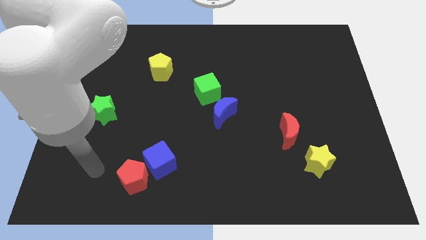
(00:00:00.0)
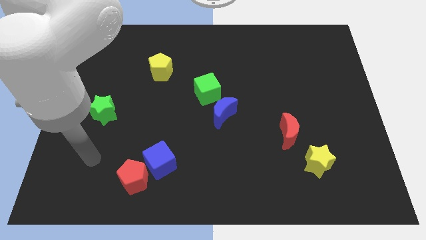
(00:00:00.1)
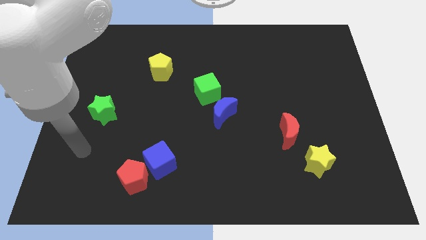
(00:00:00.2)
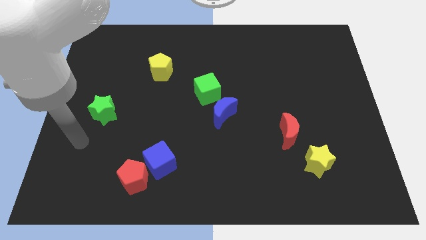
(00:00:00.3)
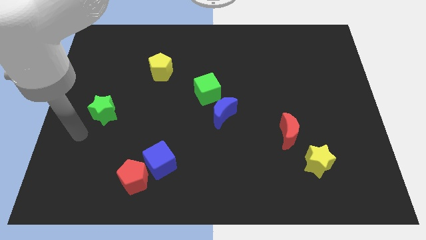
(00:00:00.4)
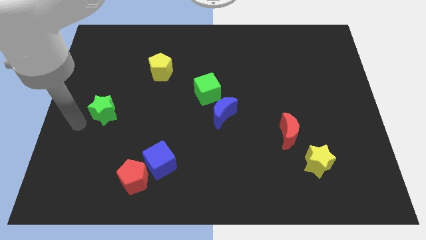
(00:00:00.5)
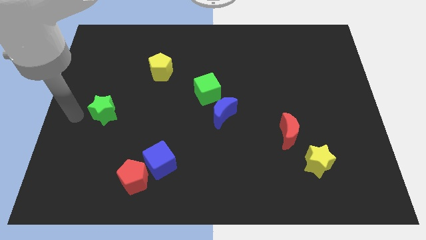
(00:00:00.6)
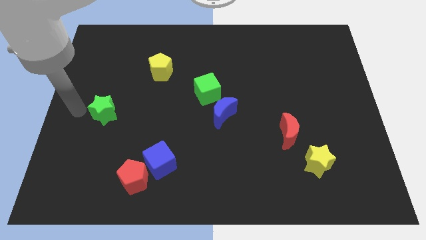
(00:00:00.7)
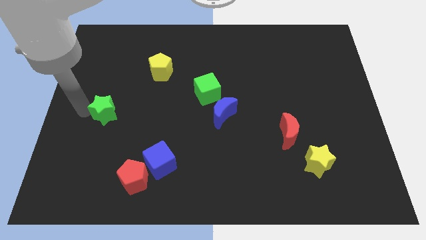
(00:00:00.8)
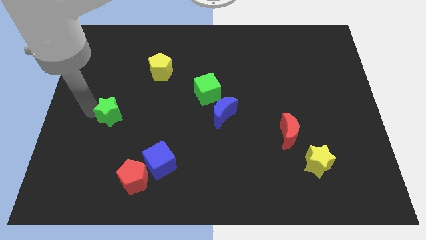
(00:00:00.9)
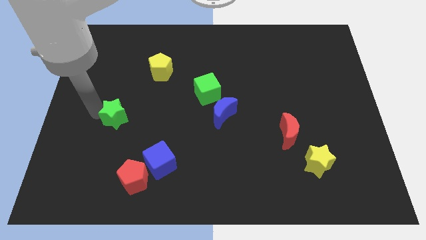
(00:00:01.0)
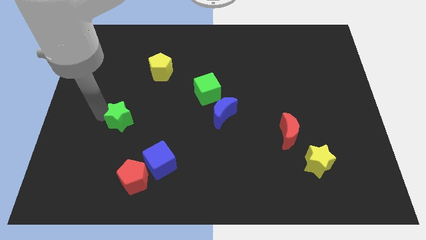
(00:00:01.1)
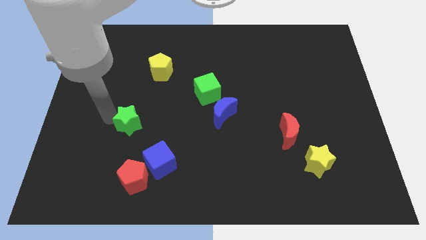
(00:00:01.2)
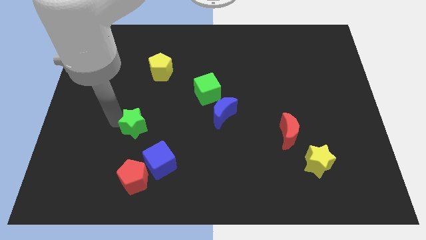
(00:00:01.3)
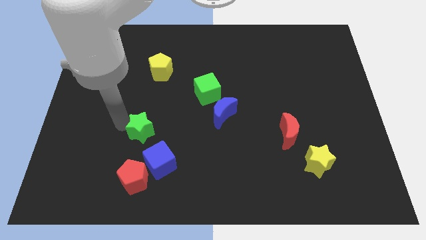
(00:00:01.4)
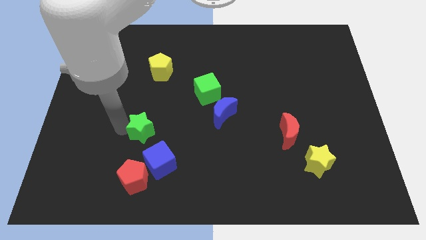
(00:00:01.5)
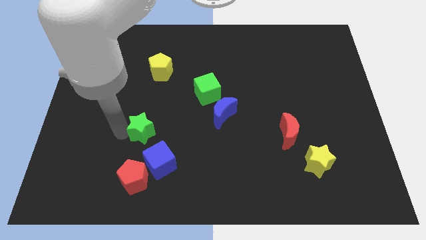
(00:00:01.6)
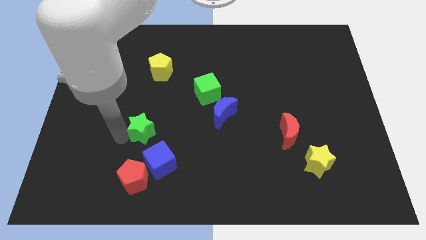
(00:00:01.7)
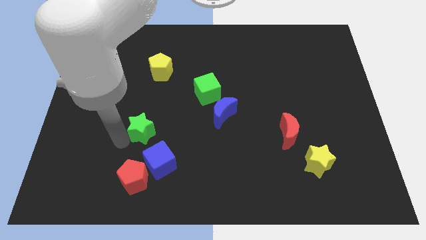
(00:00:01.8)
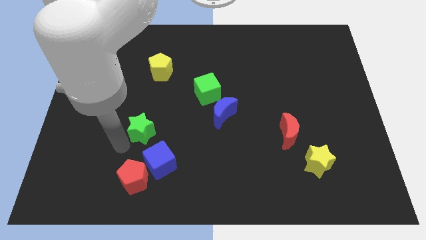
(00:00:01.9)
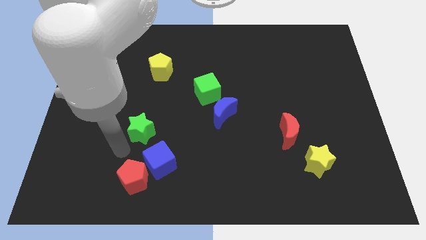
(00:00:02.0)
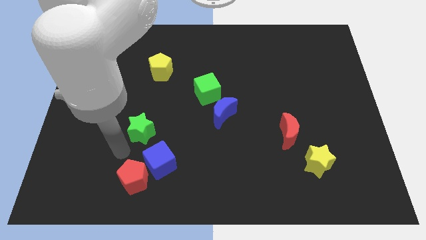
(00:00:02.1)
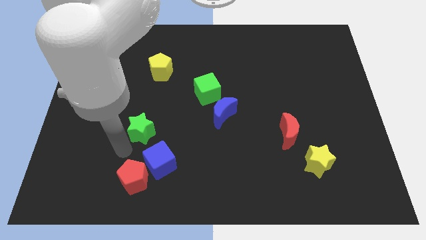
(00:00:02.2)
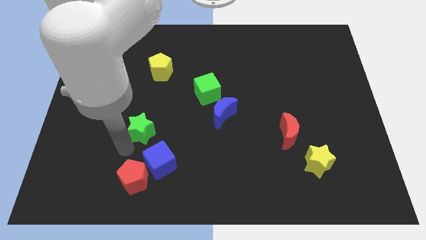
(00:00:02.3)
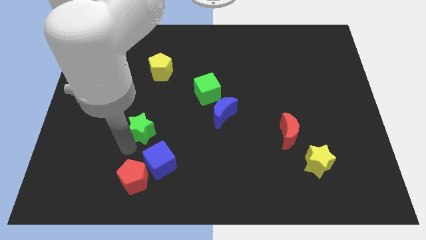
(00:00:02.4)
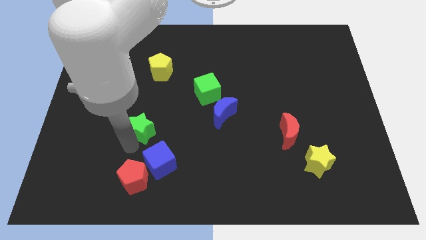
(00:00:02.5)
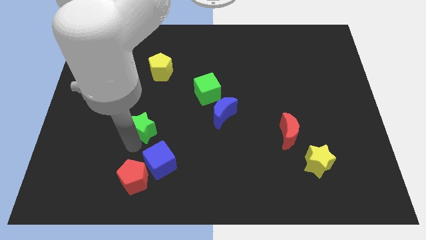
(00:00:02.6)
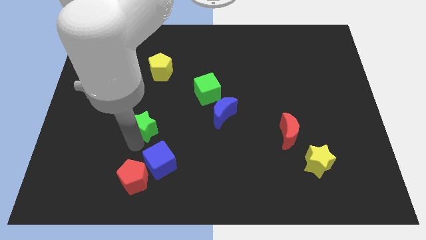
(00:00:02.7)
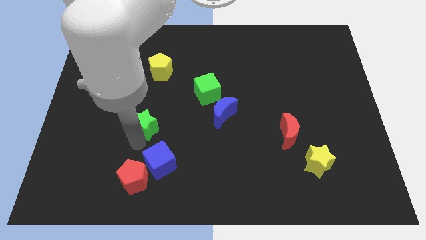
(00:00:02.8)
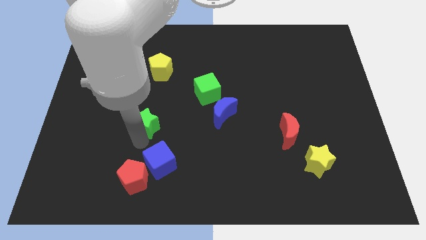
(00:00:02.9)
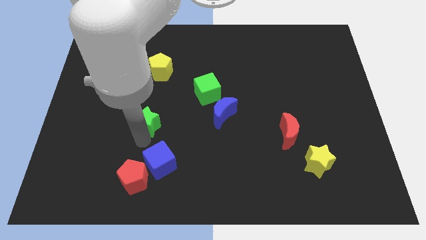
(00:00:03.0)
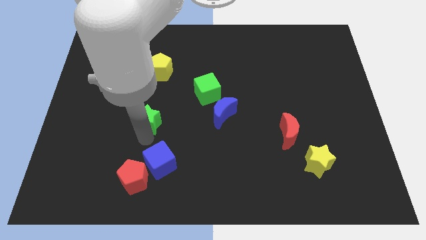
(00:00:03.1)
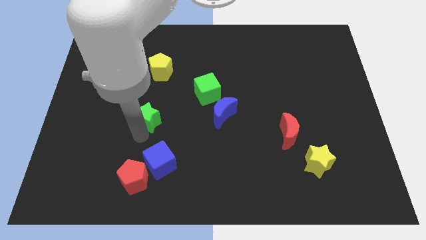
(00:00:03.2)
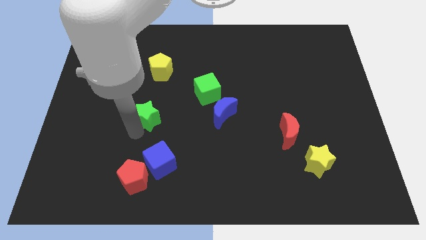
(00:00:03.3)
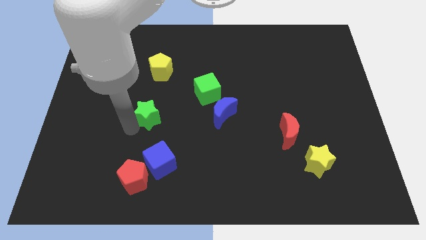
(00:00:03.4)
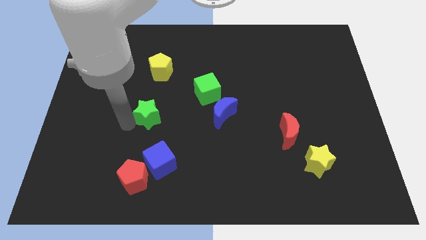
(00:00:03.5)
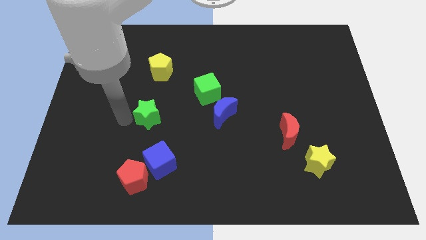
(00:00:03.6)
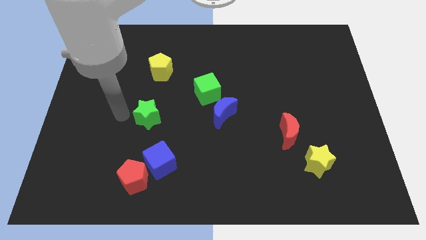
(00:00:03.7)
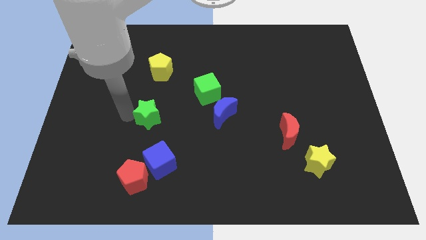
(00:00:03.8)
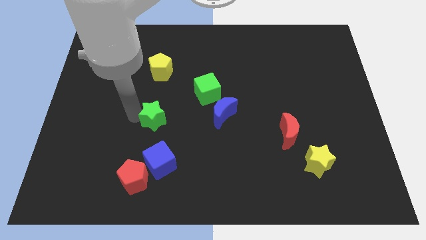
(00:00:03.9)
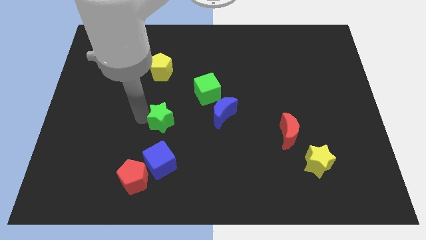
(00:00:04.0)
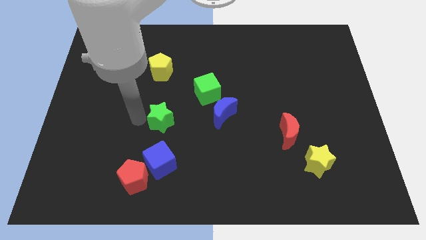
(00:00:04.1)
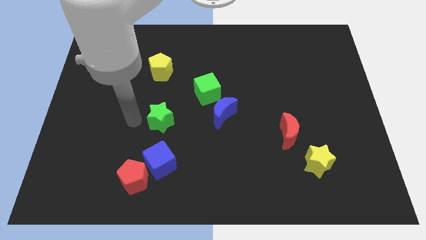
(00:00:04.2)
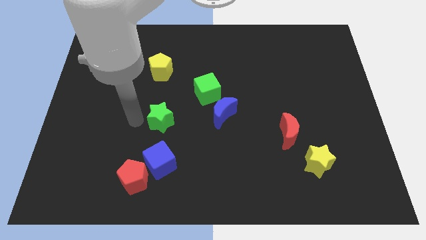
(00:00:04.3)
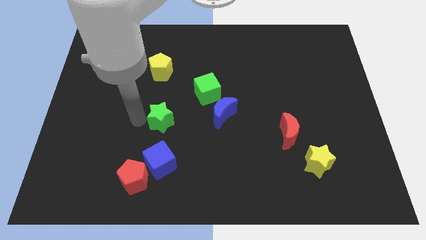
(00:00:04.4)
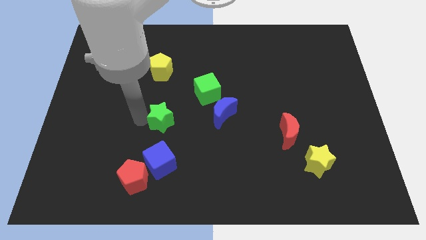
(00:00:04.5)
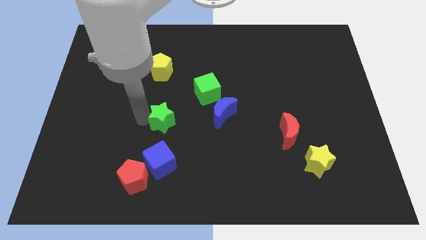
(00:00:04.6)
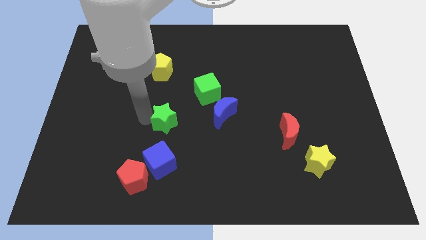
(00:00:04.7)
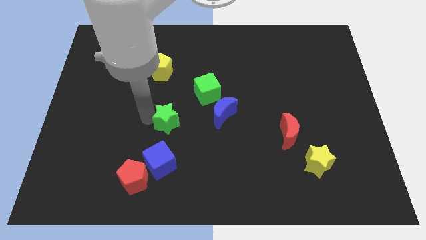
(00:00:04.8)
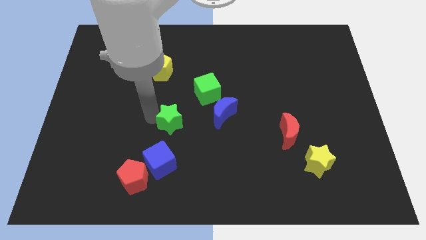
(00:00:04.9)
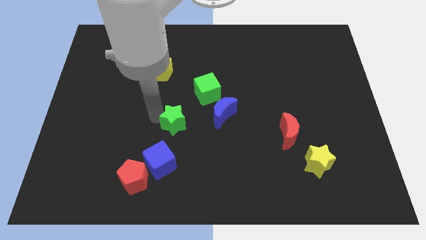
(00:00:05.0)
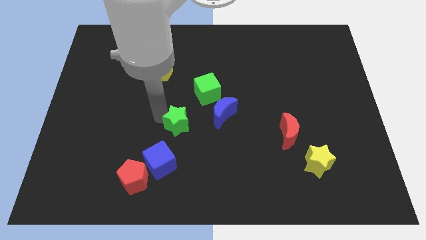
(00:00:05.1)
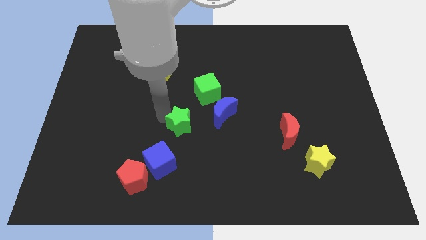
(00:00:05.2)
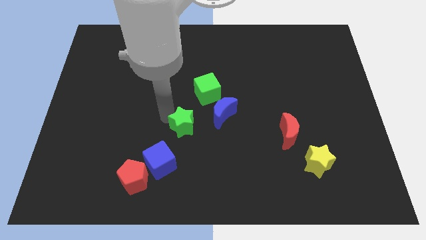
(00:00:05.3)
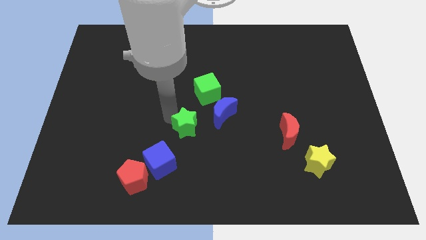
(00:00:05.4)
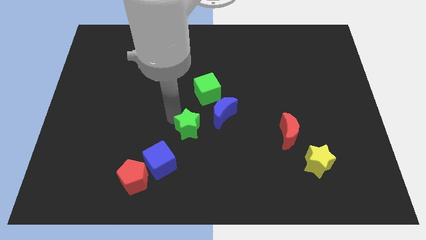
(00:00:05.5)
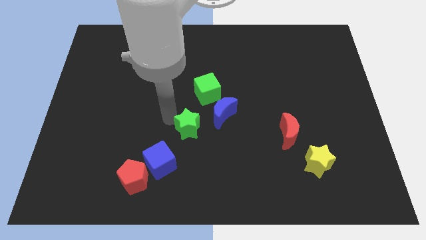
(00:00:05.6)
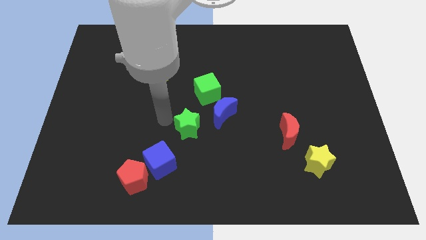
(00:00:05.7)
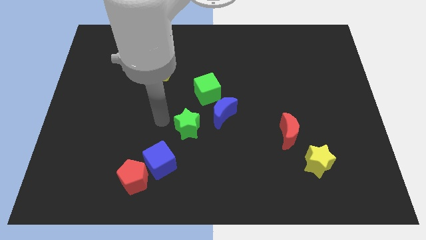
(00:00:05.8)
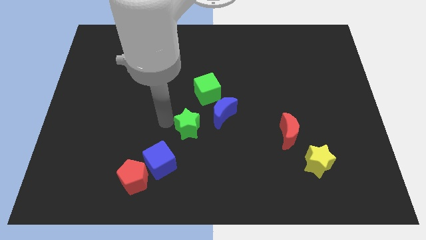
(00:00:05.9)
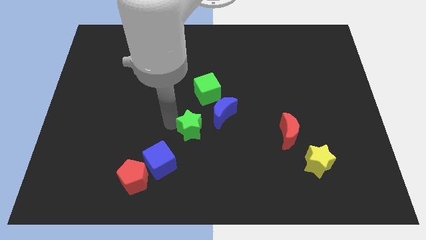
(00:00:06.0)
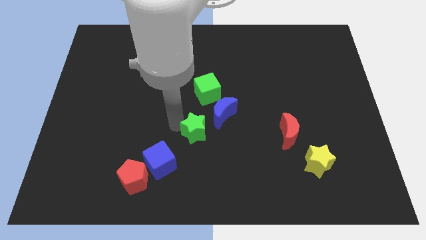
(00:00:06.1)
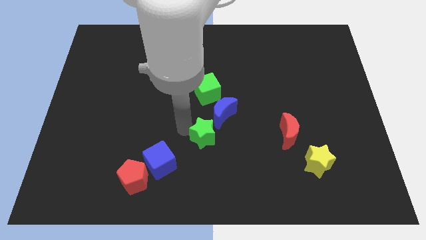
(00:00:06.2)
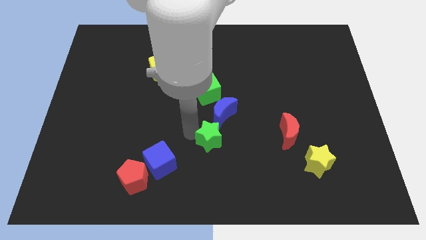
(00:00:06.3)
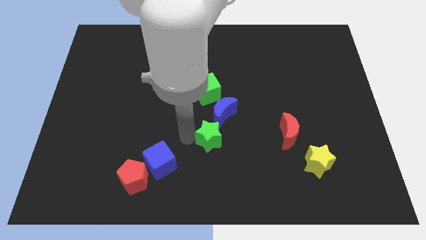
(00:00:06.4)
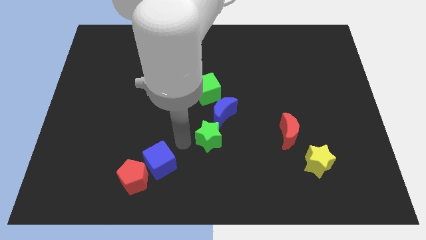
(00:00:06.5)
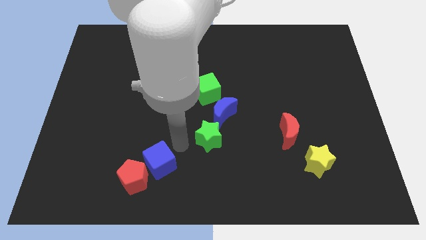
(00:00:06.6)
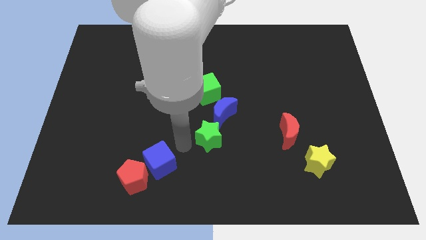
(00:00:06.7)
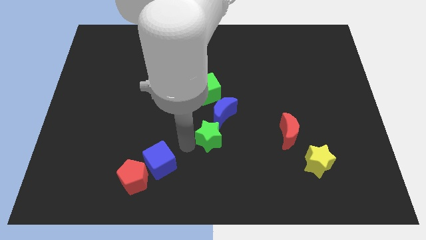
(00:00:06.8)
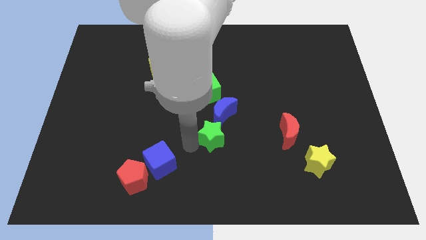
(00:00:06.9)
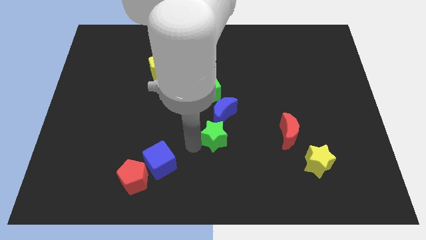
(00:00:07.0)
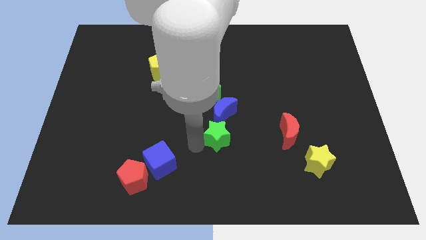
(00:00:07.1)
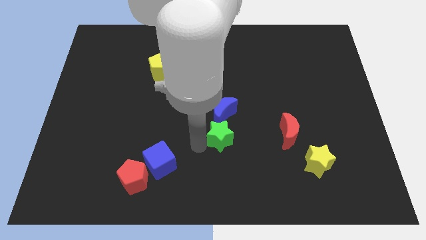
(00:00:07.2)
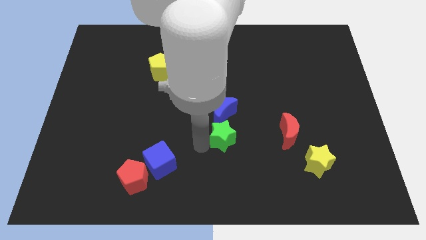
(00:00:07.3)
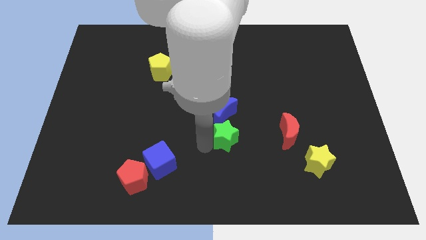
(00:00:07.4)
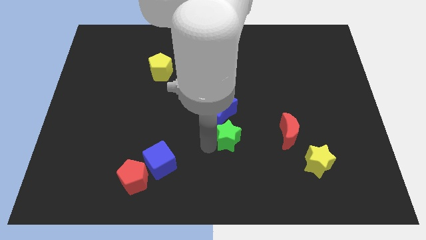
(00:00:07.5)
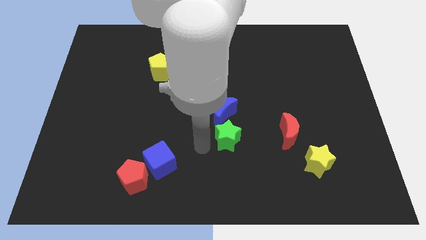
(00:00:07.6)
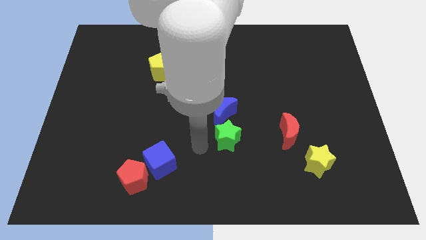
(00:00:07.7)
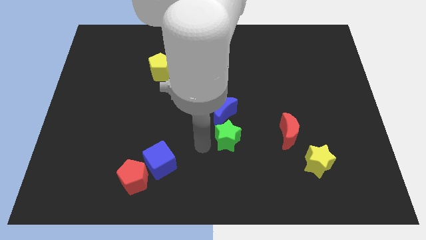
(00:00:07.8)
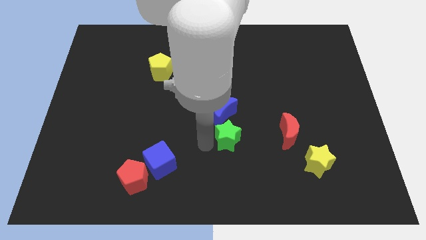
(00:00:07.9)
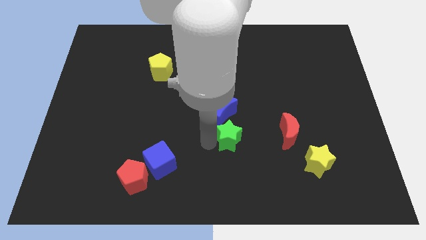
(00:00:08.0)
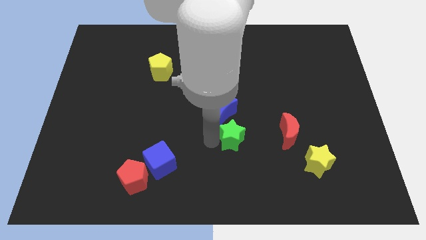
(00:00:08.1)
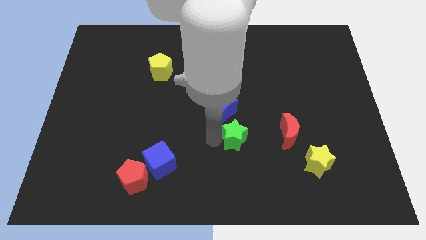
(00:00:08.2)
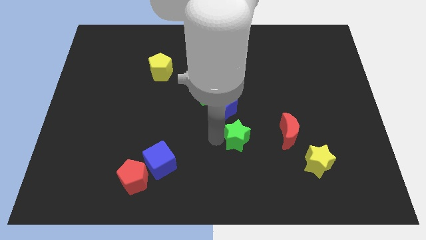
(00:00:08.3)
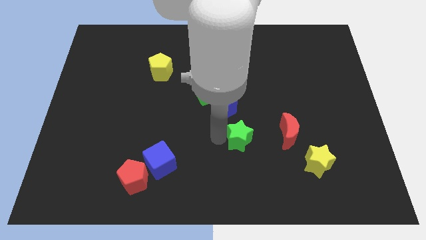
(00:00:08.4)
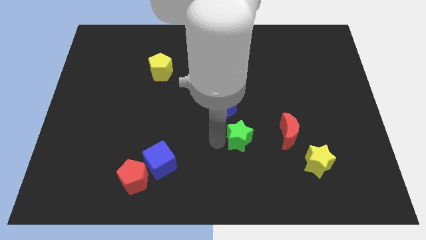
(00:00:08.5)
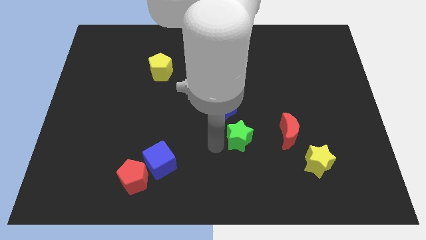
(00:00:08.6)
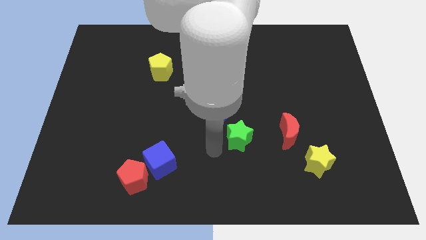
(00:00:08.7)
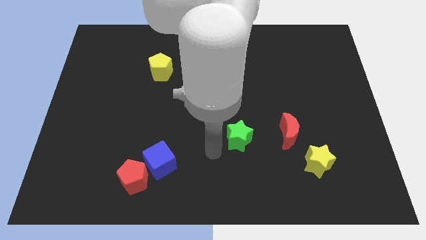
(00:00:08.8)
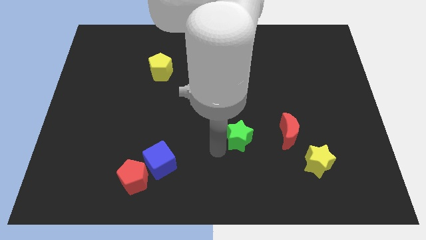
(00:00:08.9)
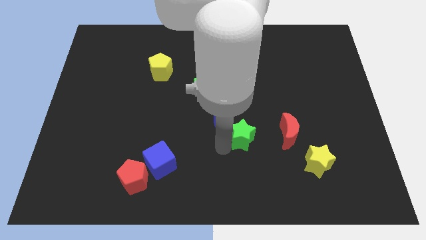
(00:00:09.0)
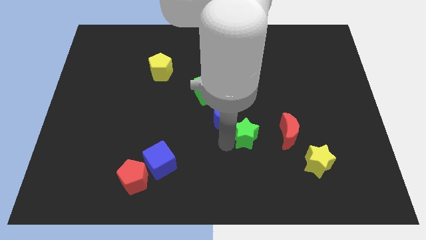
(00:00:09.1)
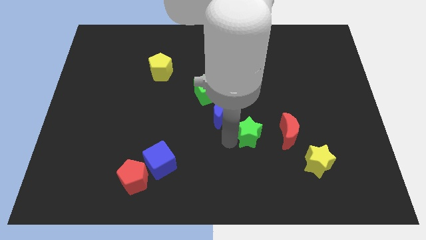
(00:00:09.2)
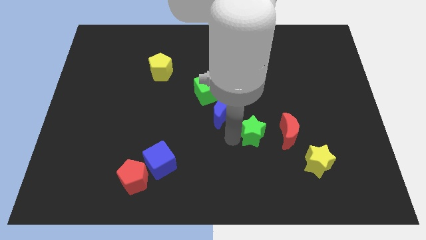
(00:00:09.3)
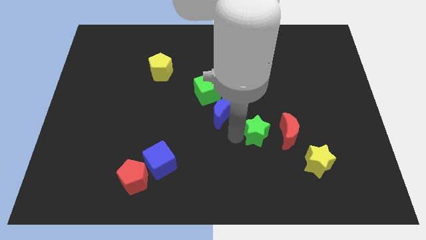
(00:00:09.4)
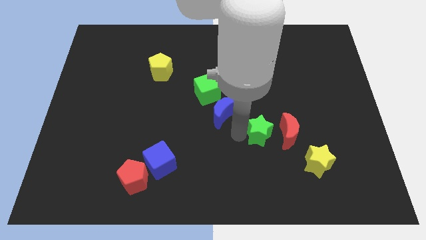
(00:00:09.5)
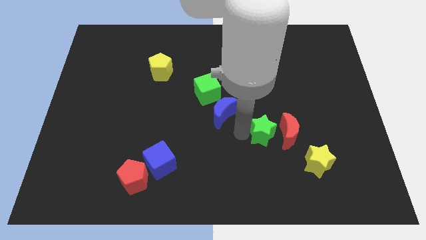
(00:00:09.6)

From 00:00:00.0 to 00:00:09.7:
push the green star to the red moon
